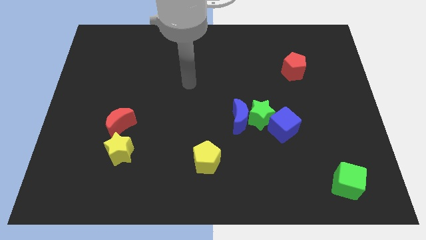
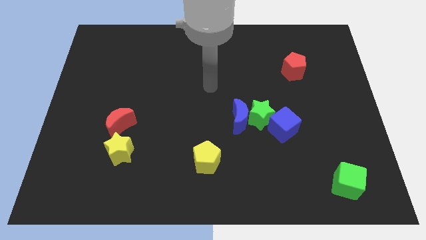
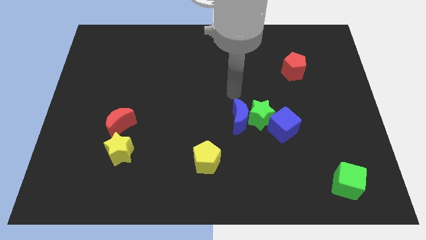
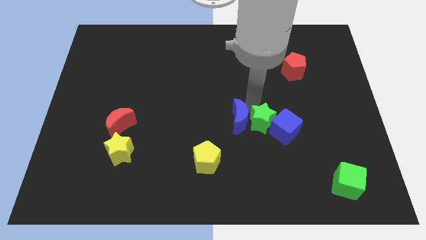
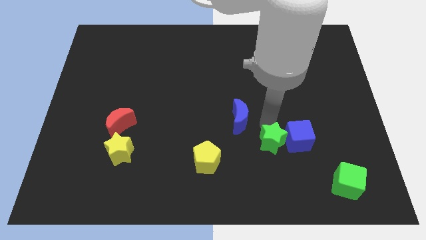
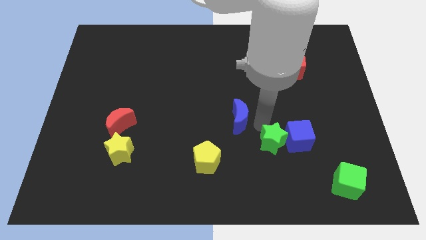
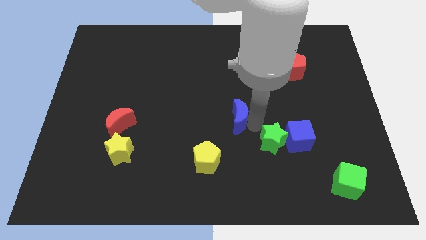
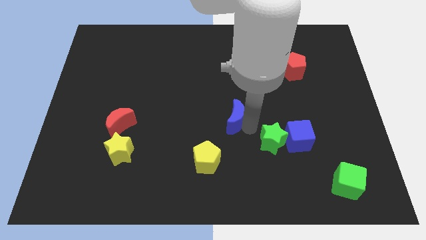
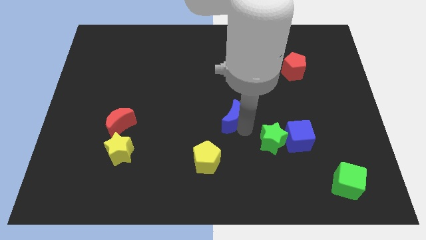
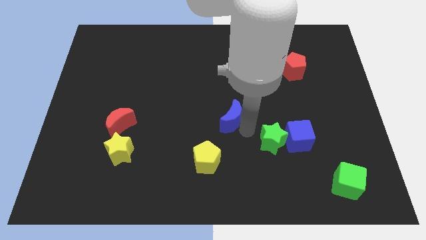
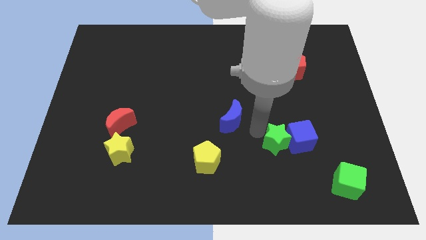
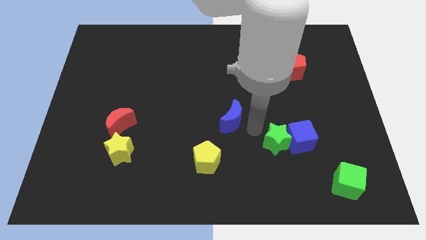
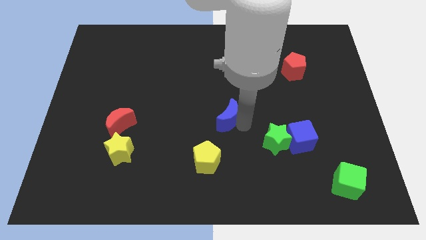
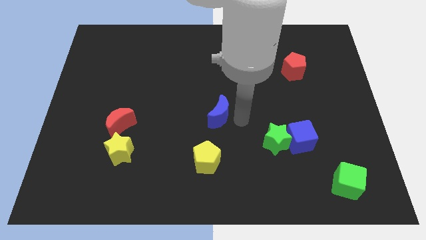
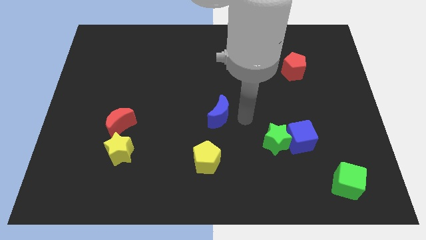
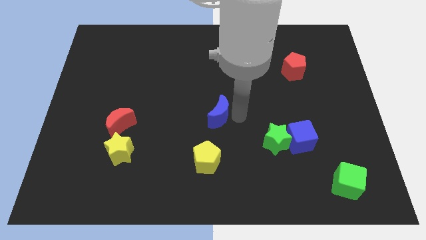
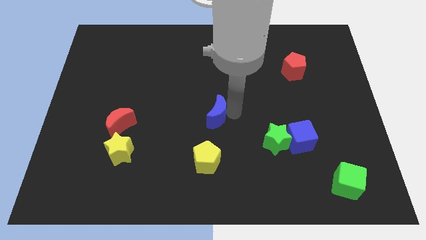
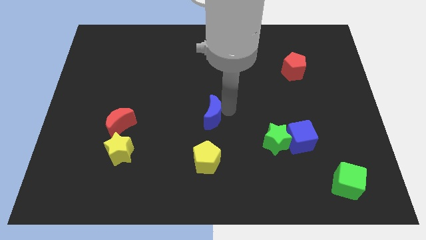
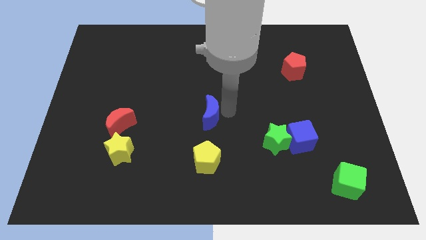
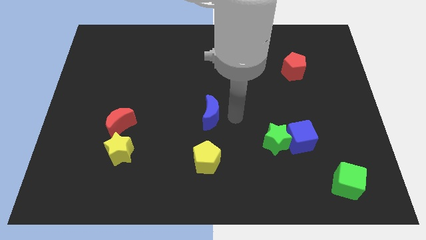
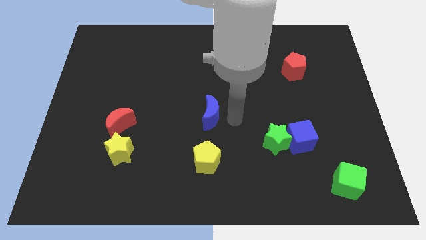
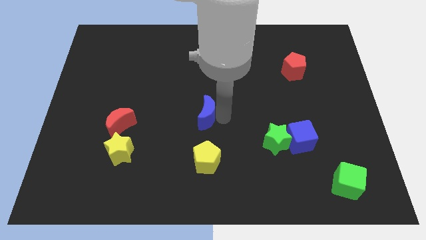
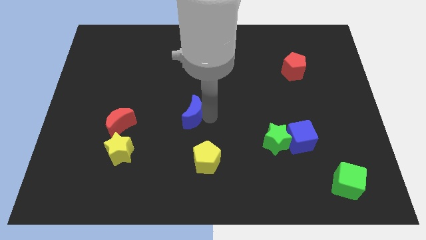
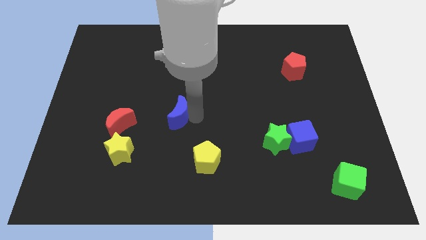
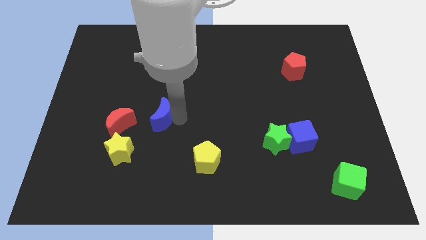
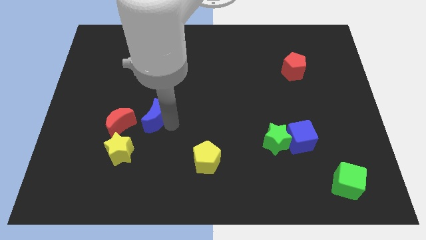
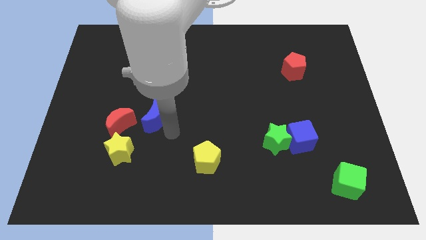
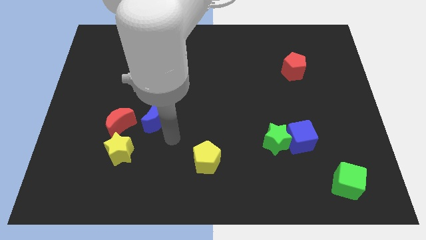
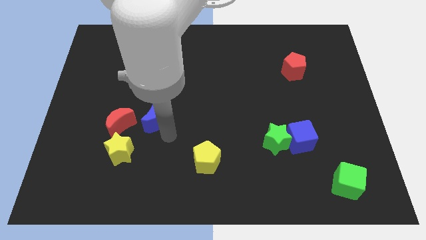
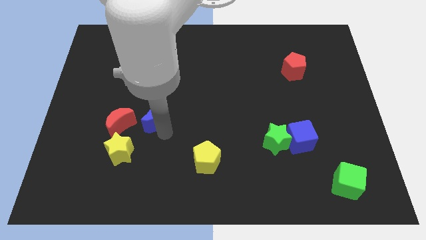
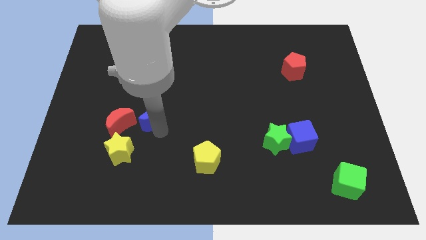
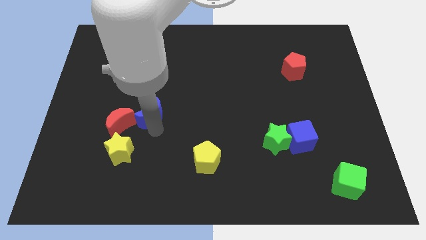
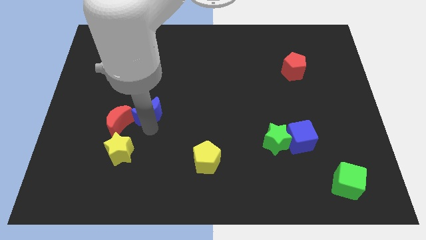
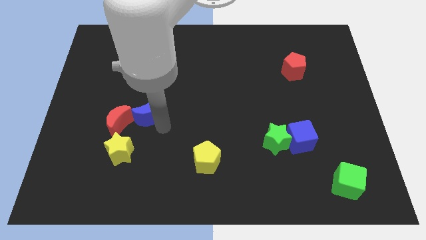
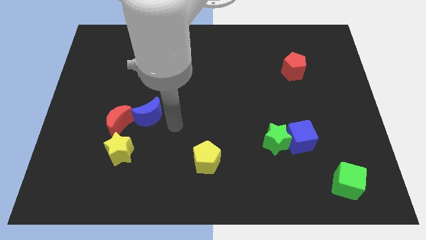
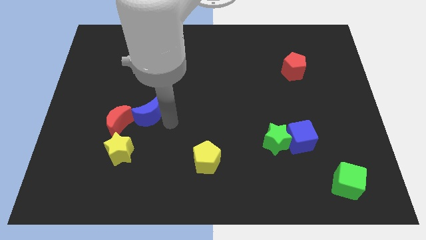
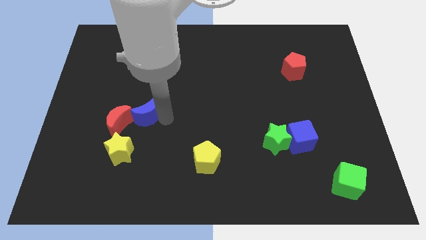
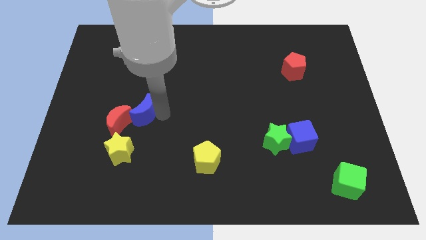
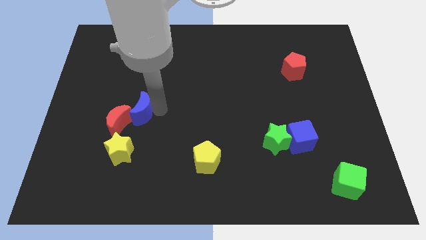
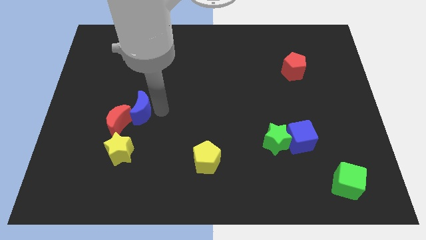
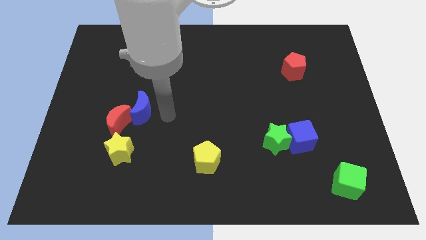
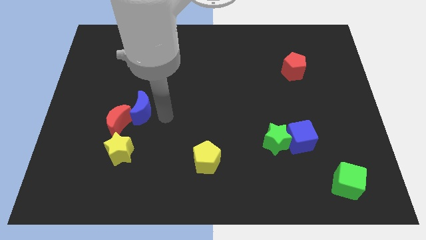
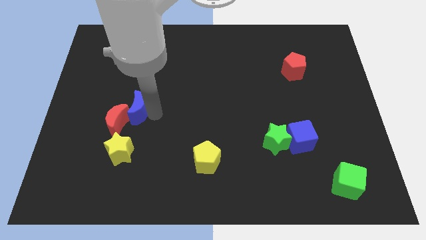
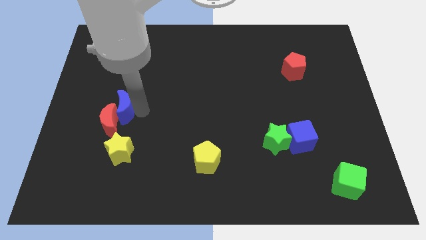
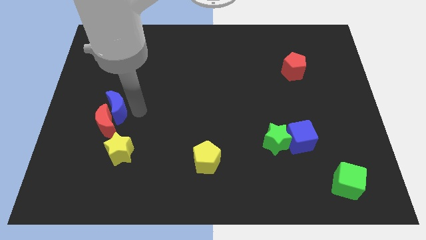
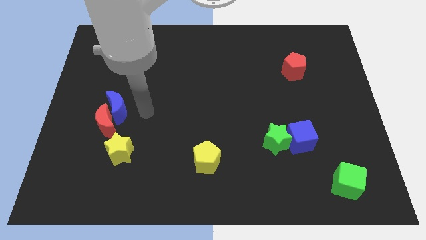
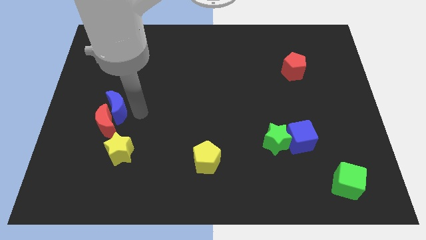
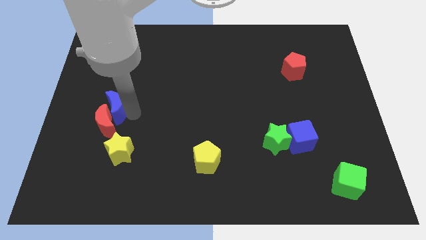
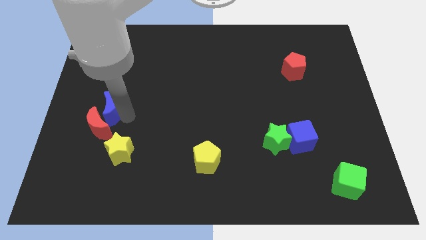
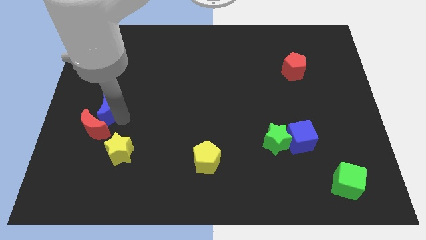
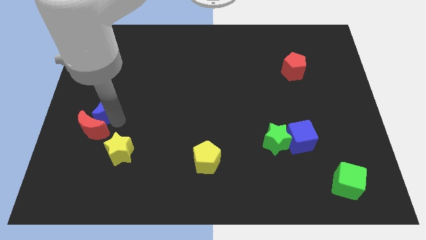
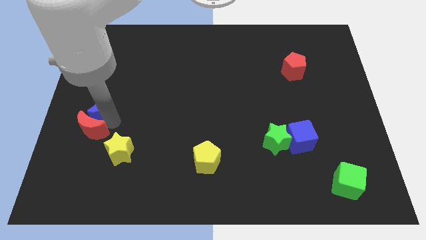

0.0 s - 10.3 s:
slide the blue moon to the center left

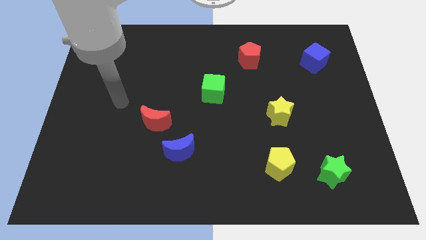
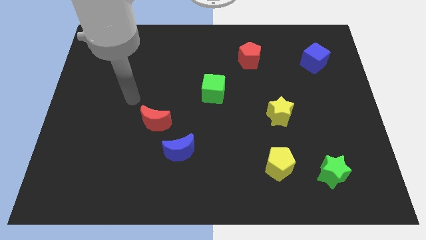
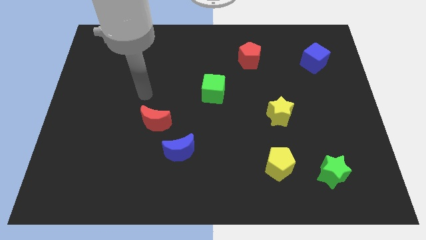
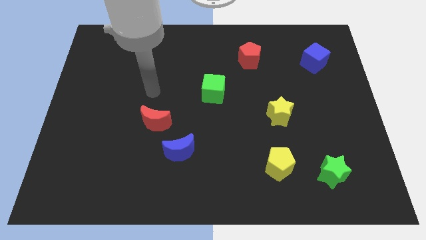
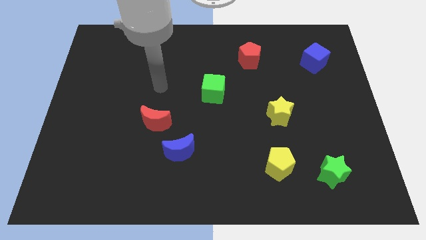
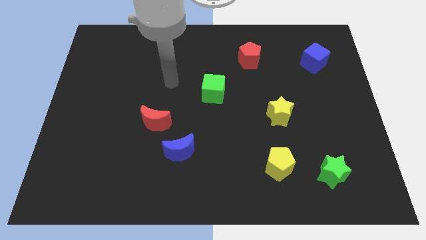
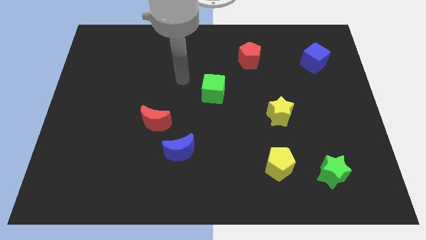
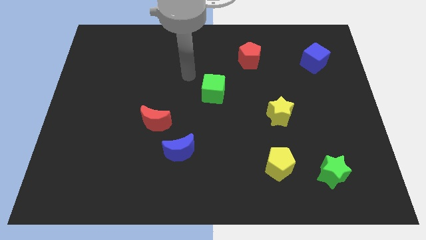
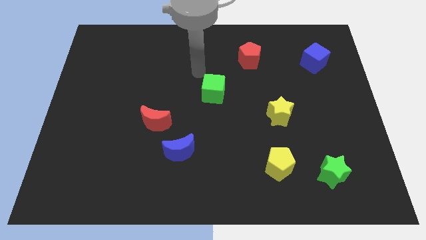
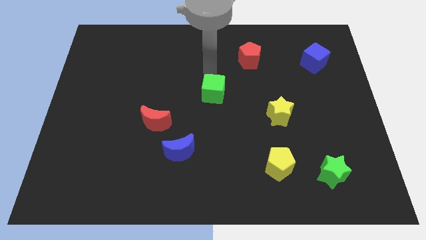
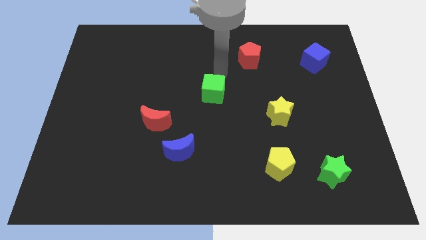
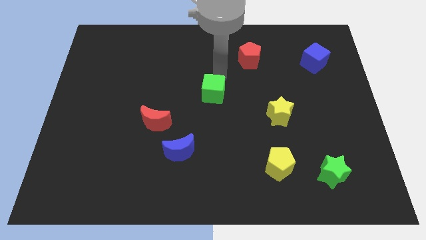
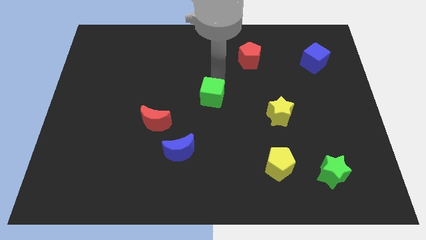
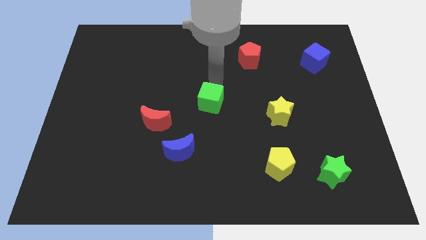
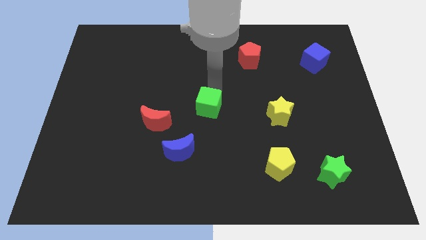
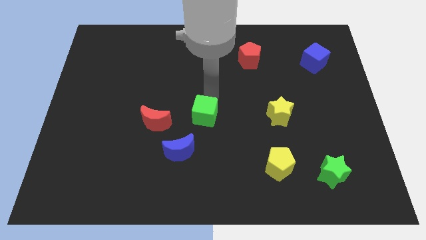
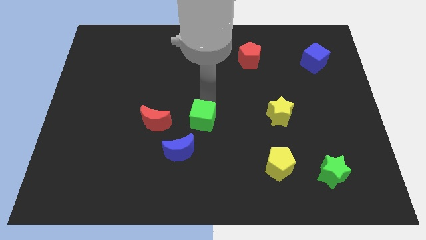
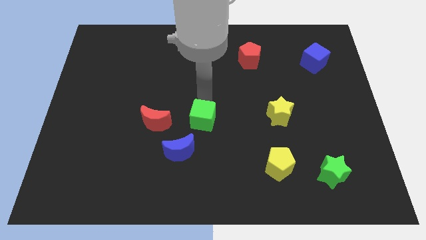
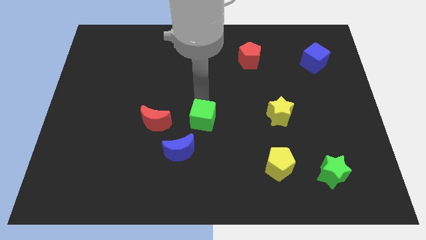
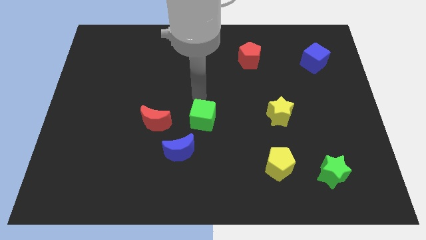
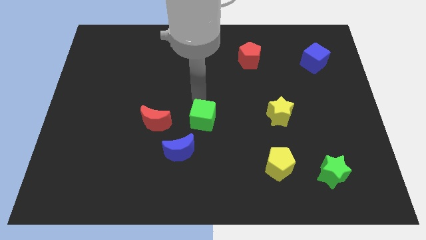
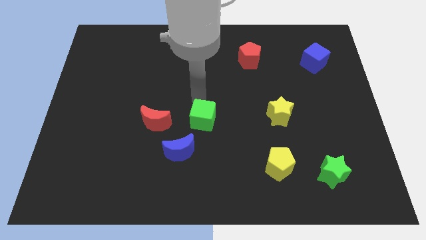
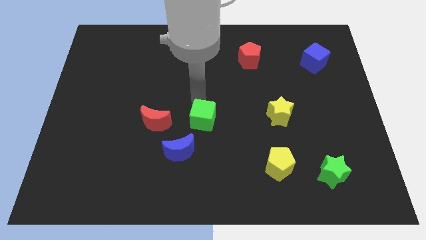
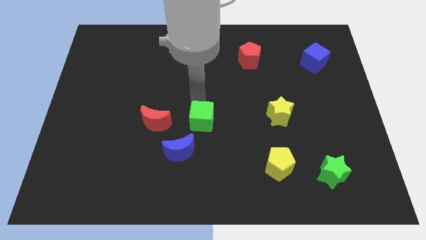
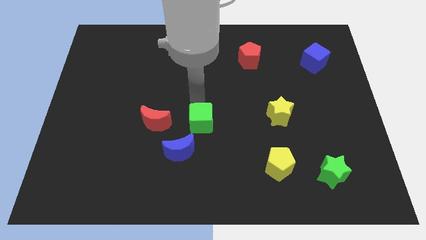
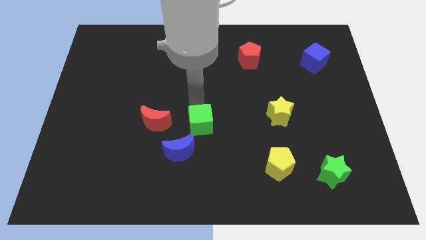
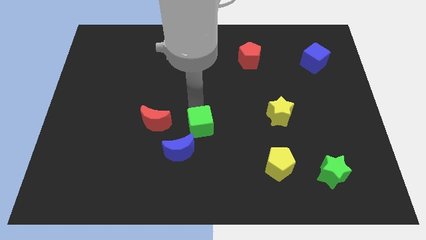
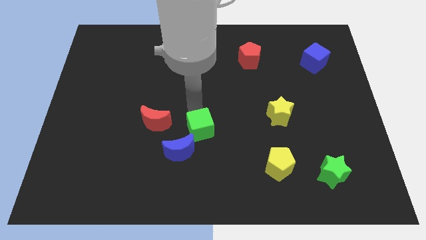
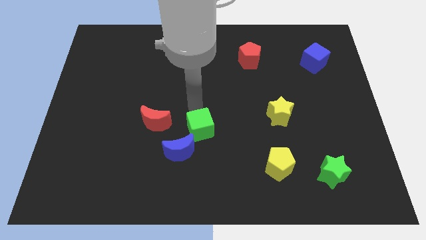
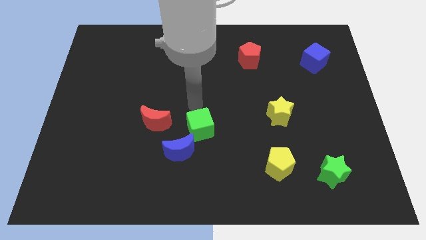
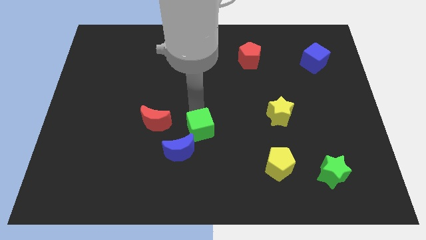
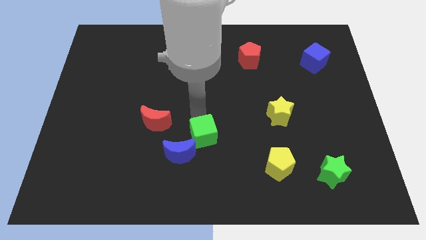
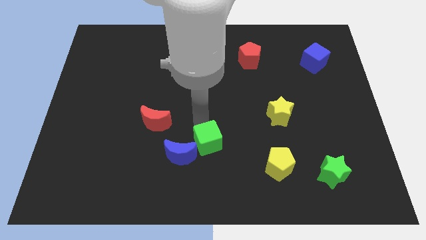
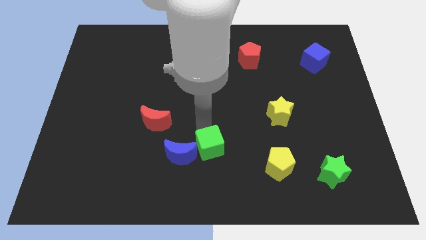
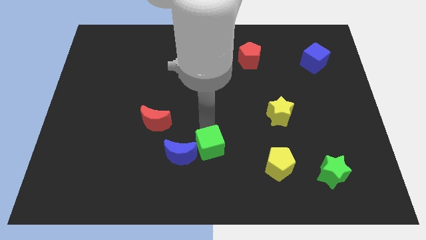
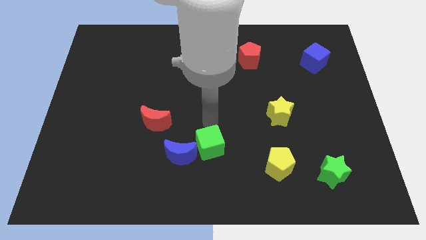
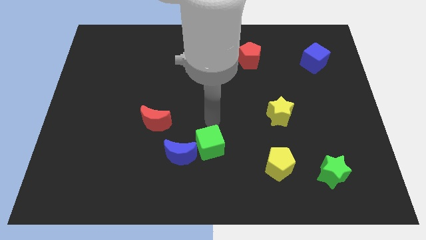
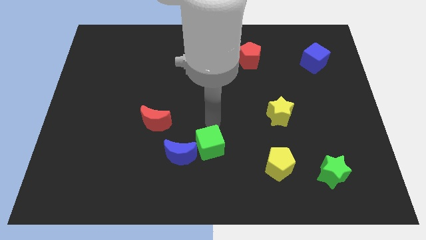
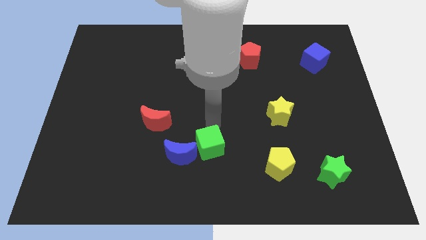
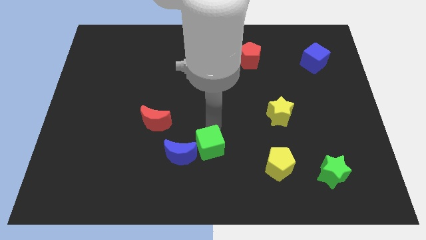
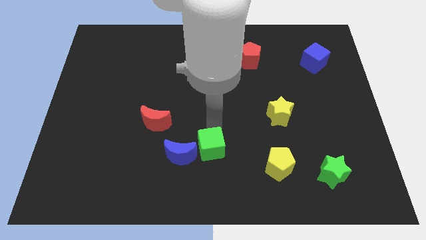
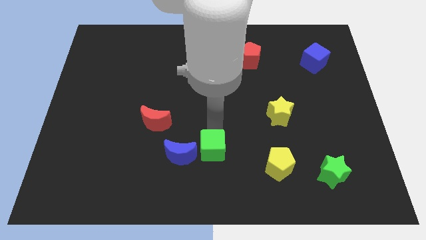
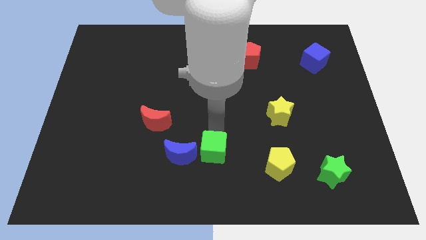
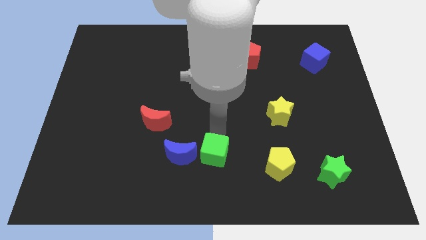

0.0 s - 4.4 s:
put the green cube to the bottom
